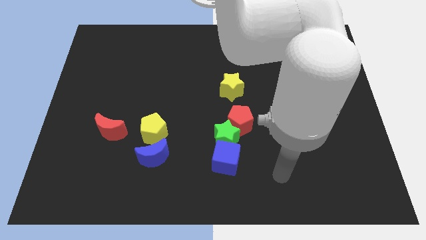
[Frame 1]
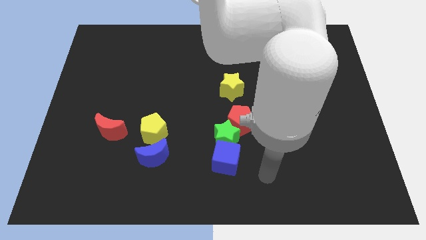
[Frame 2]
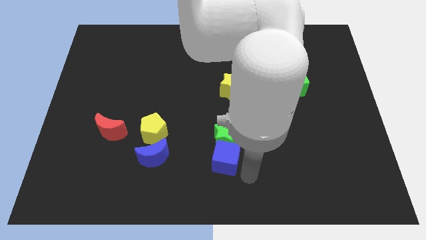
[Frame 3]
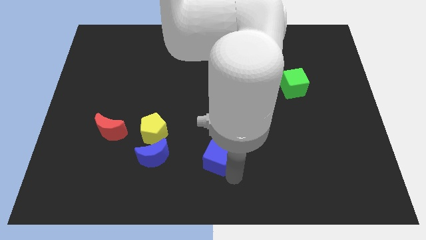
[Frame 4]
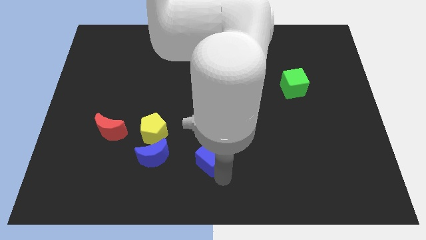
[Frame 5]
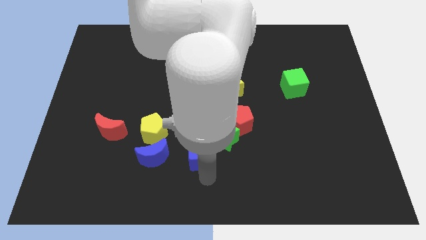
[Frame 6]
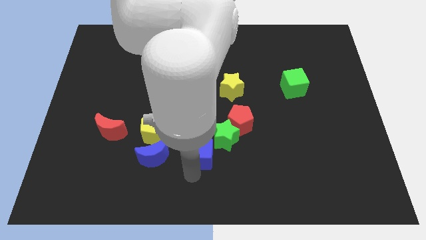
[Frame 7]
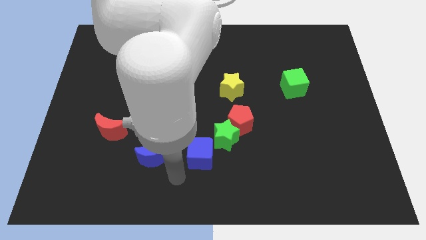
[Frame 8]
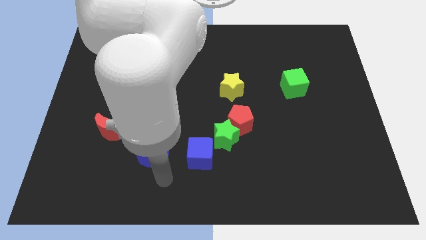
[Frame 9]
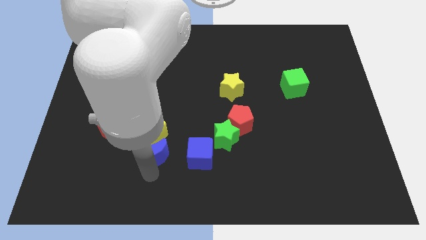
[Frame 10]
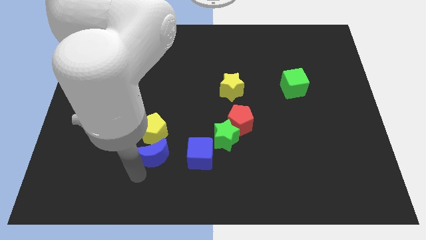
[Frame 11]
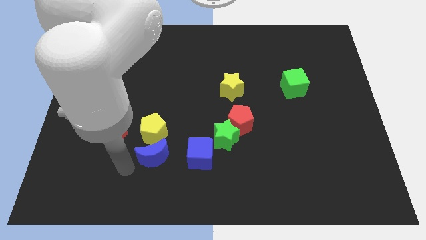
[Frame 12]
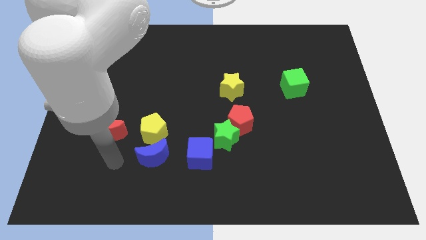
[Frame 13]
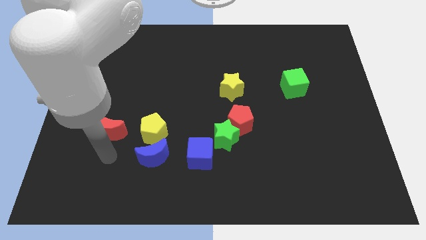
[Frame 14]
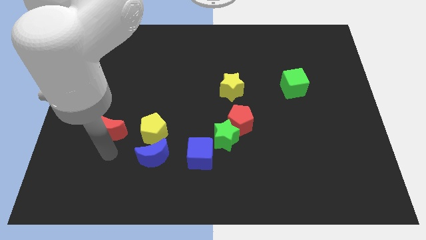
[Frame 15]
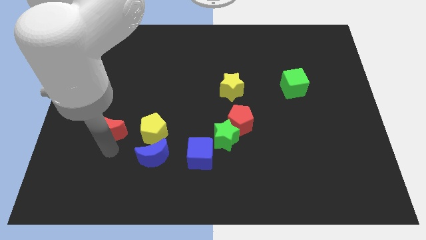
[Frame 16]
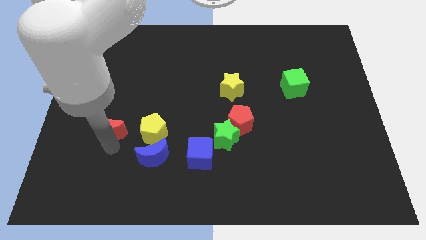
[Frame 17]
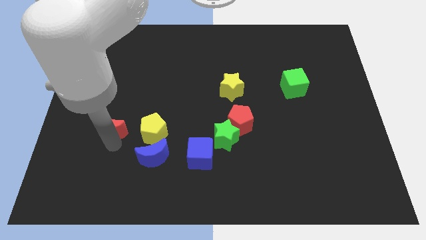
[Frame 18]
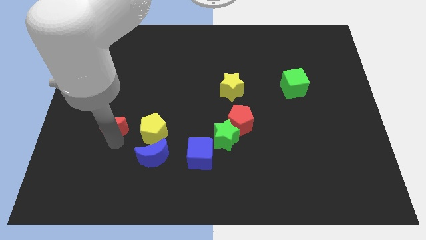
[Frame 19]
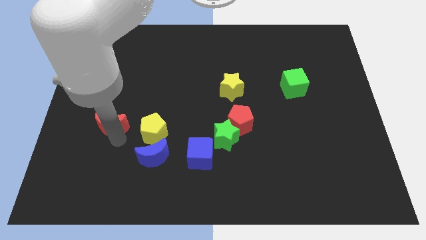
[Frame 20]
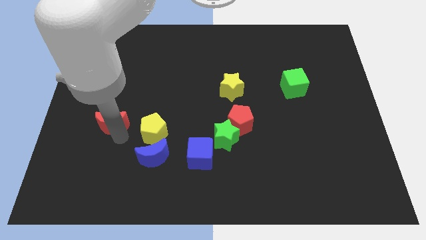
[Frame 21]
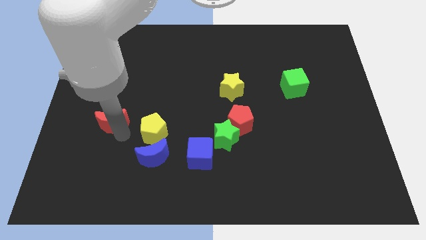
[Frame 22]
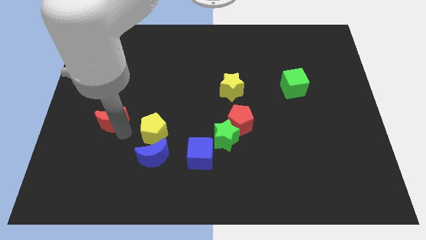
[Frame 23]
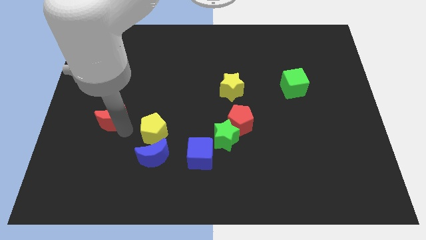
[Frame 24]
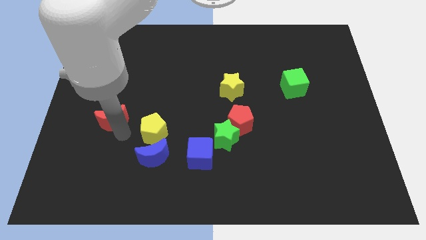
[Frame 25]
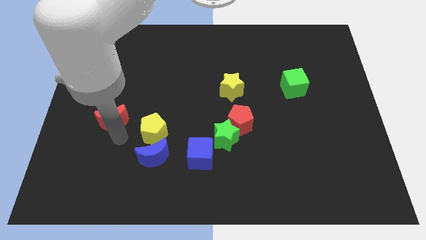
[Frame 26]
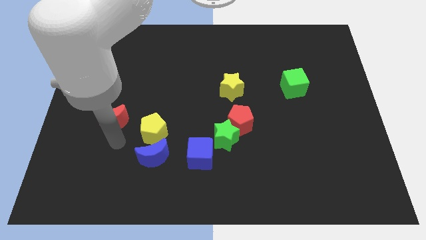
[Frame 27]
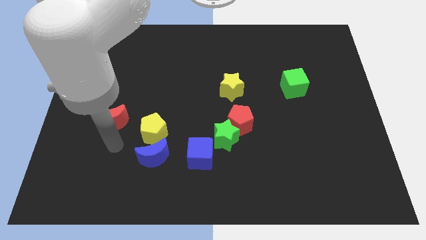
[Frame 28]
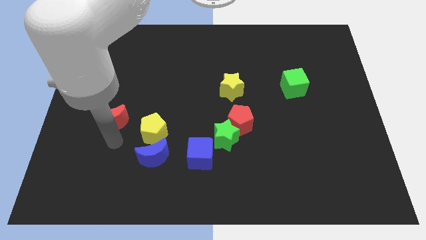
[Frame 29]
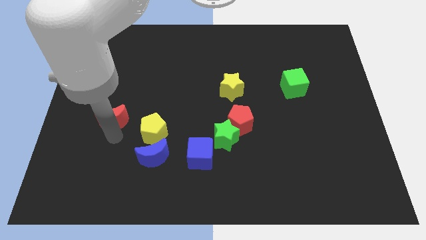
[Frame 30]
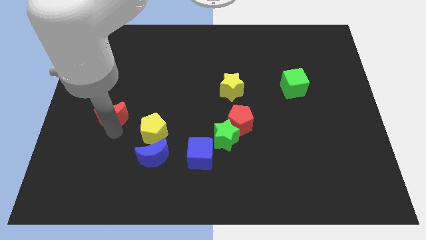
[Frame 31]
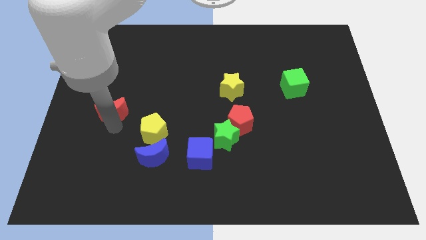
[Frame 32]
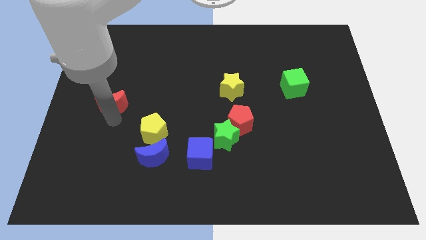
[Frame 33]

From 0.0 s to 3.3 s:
slightly move the red moon up

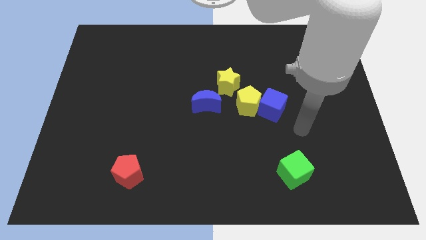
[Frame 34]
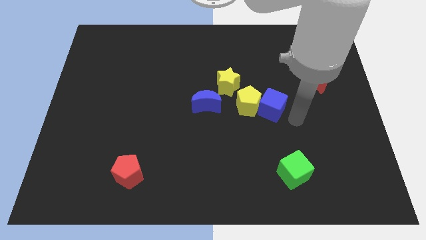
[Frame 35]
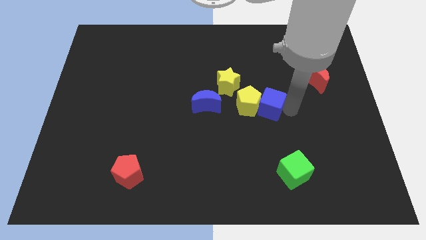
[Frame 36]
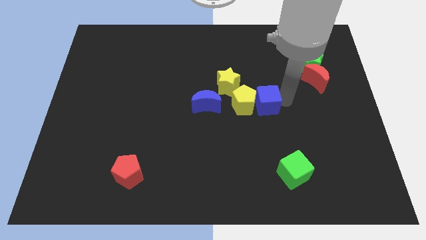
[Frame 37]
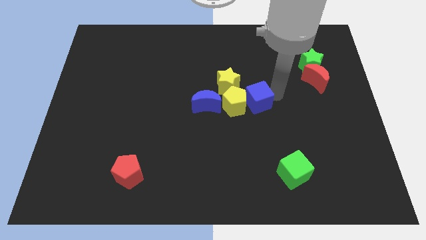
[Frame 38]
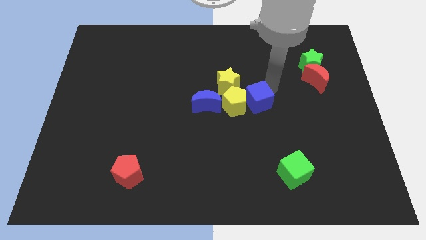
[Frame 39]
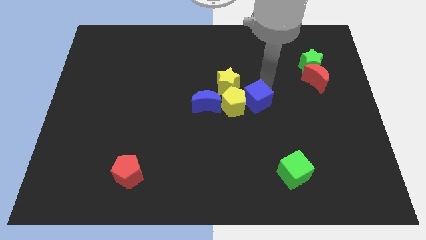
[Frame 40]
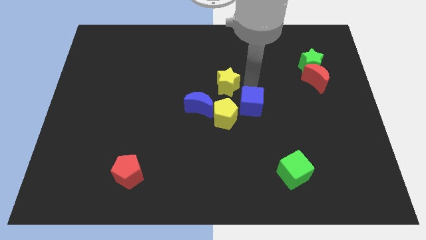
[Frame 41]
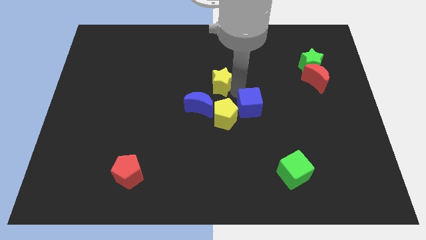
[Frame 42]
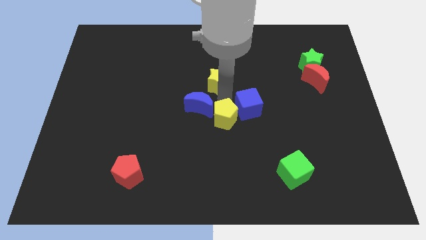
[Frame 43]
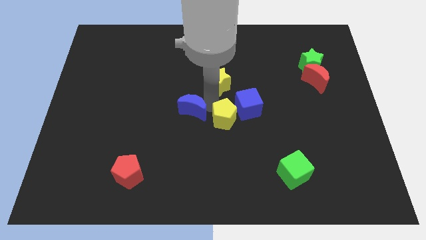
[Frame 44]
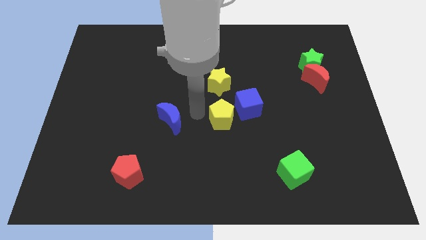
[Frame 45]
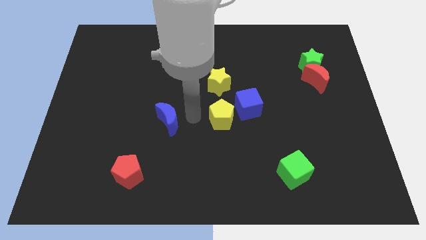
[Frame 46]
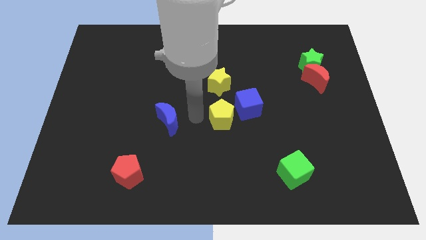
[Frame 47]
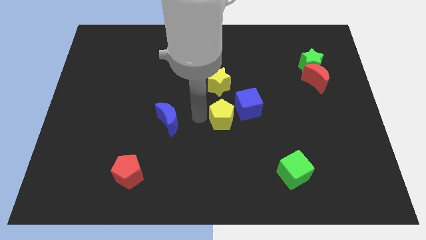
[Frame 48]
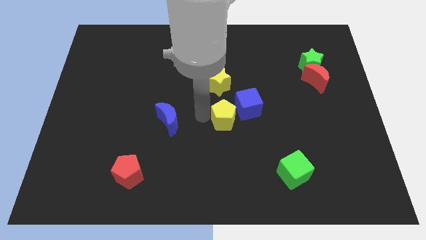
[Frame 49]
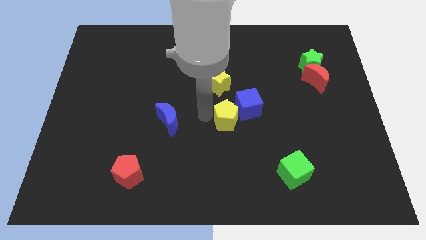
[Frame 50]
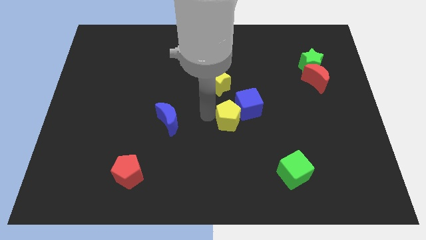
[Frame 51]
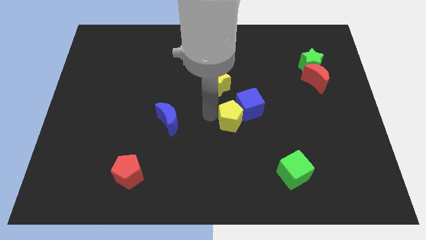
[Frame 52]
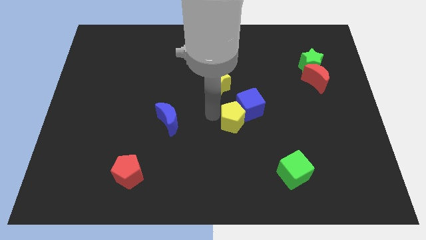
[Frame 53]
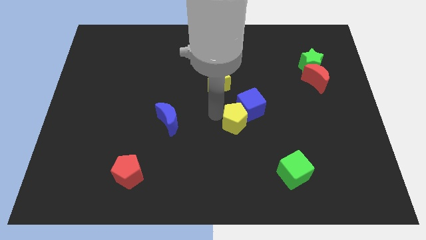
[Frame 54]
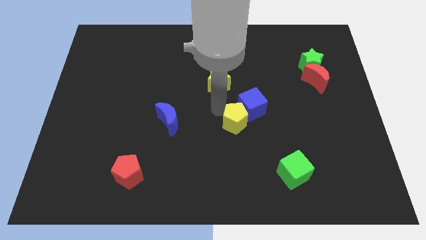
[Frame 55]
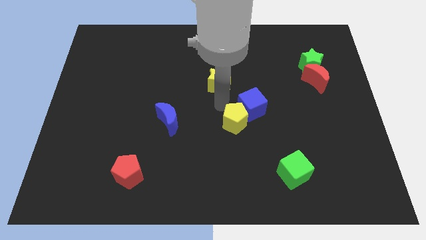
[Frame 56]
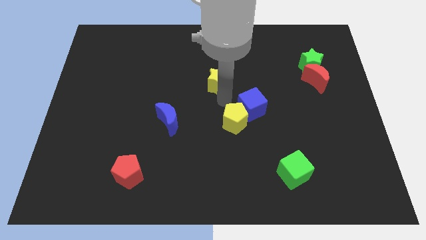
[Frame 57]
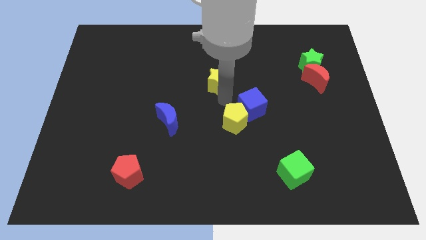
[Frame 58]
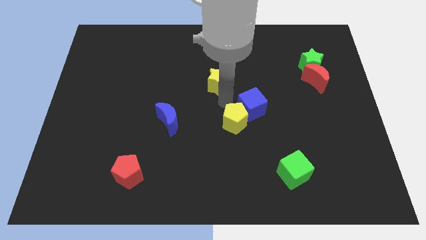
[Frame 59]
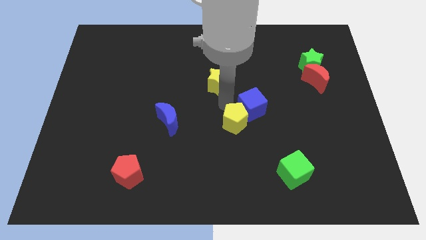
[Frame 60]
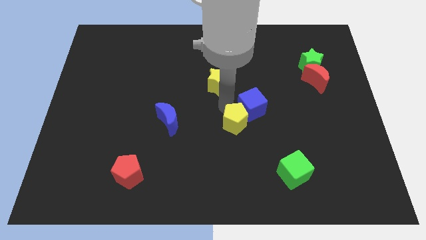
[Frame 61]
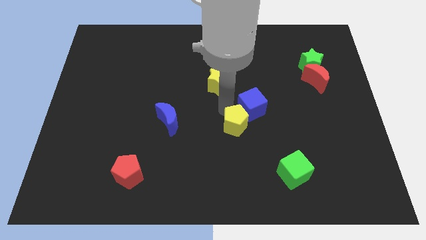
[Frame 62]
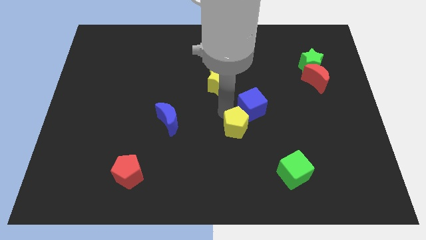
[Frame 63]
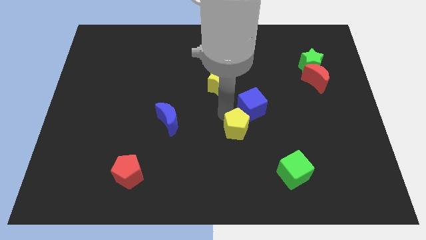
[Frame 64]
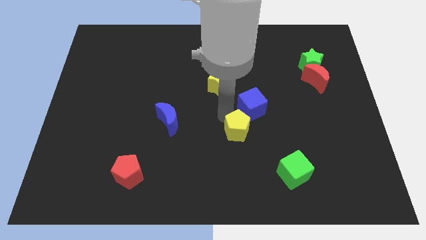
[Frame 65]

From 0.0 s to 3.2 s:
move the yellow pentagon down somewhat

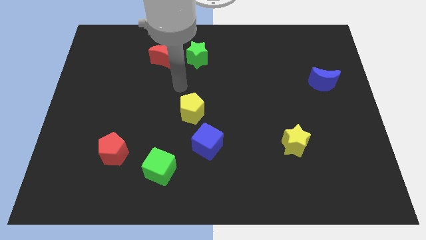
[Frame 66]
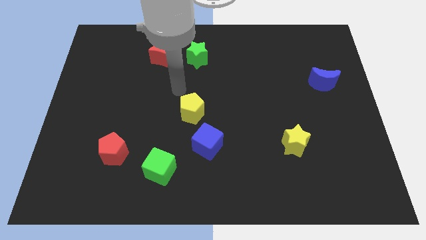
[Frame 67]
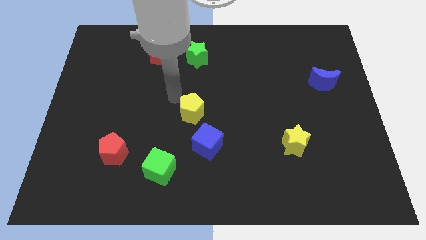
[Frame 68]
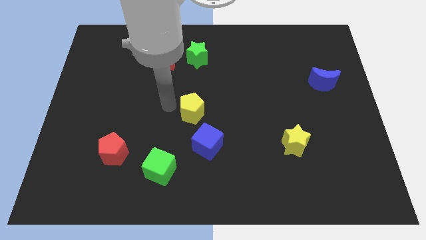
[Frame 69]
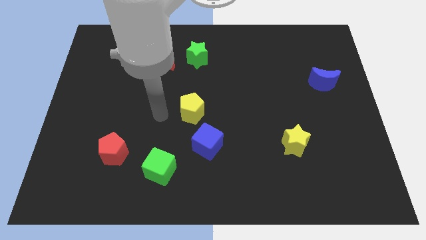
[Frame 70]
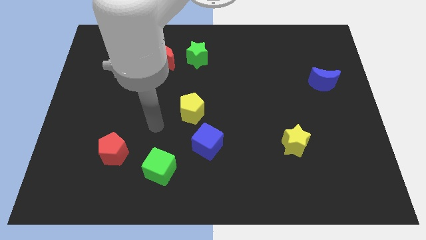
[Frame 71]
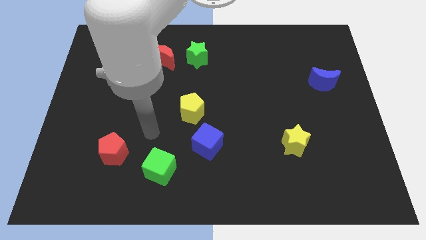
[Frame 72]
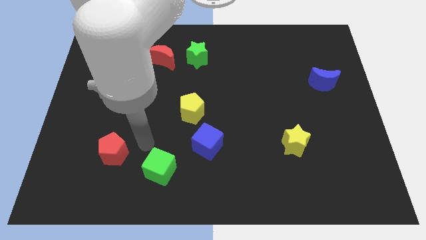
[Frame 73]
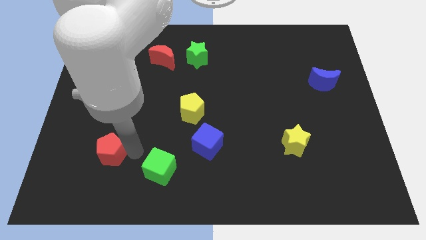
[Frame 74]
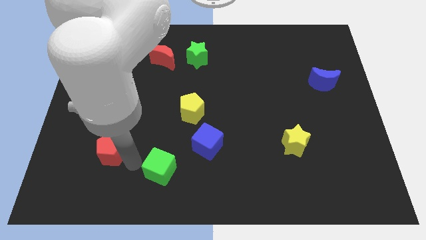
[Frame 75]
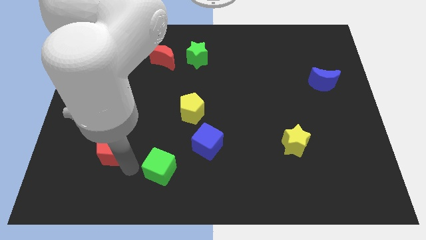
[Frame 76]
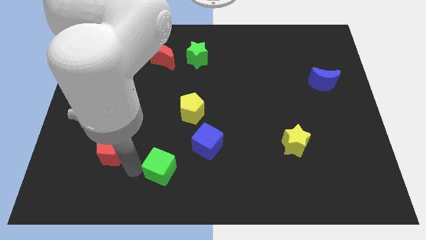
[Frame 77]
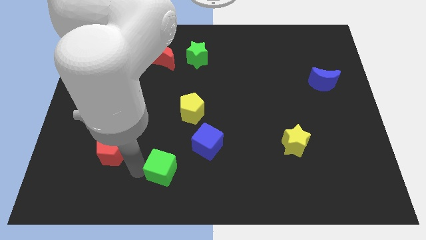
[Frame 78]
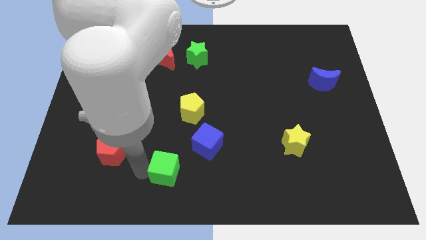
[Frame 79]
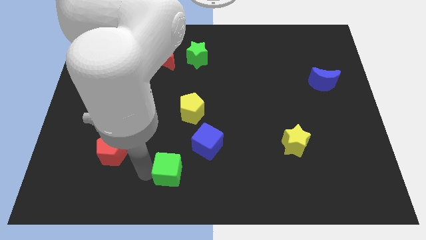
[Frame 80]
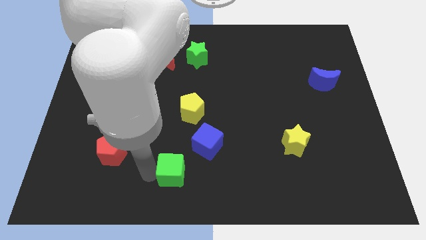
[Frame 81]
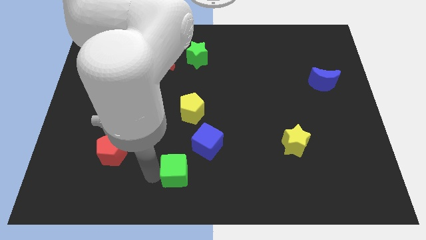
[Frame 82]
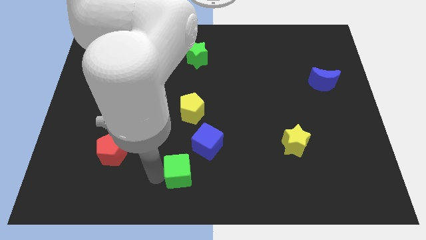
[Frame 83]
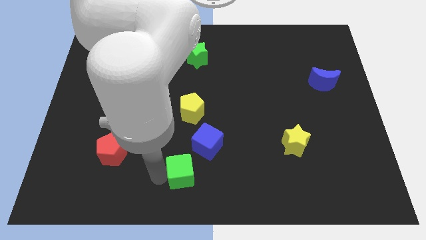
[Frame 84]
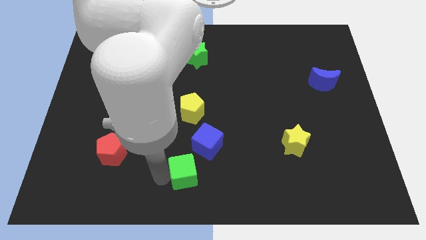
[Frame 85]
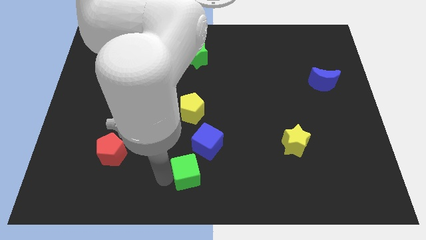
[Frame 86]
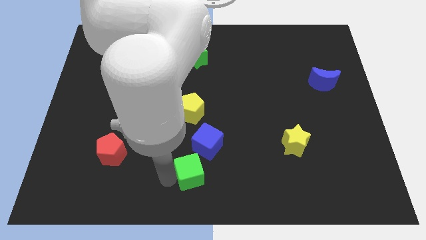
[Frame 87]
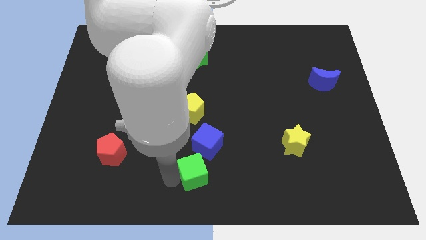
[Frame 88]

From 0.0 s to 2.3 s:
push the green cube right a little
